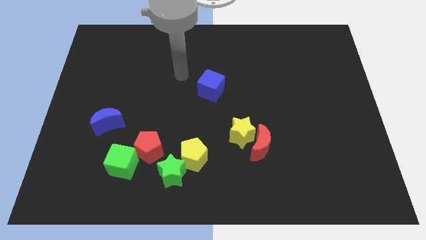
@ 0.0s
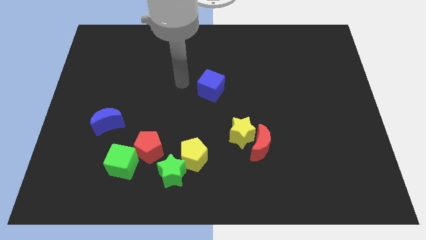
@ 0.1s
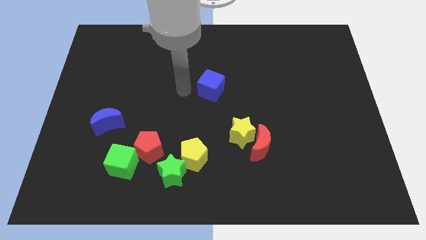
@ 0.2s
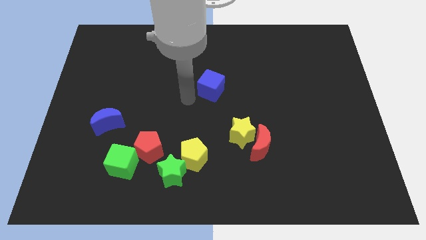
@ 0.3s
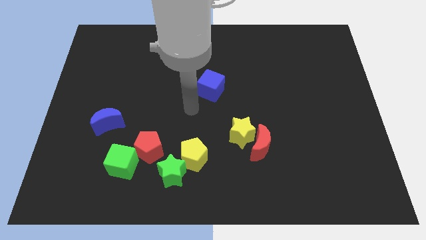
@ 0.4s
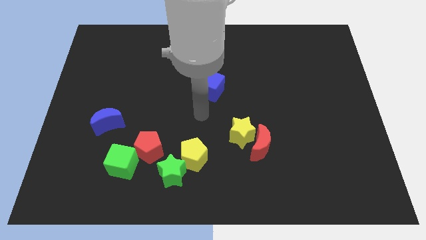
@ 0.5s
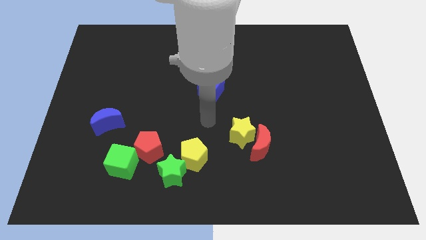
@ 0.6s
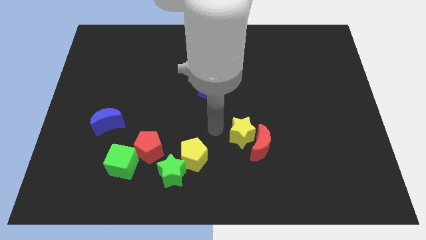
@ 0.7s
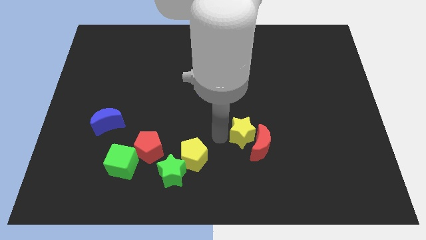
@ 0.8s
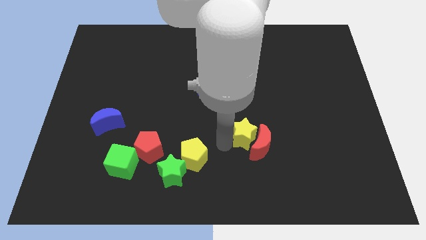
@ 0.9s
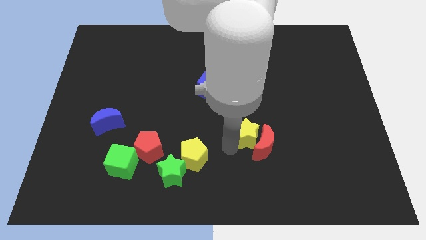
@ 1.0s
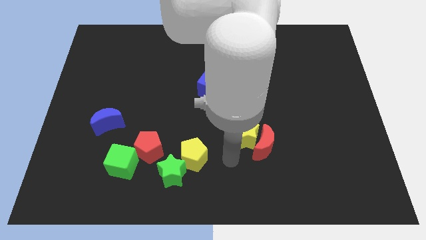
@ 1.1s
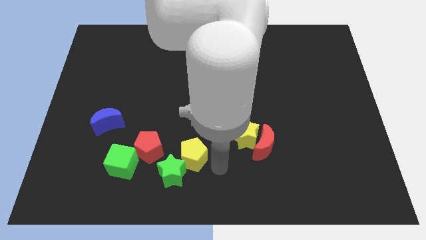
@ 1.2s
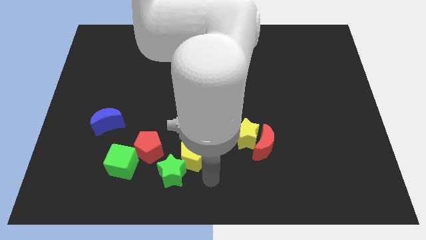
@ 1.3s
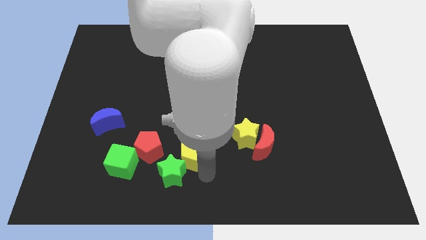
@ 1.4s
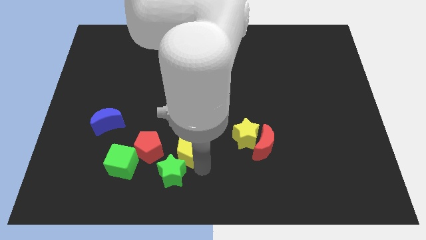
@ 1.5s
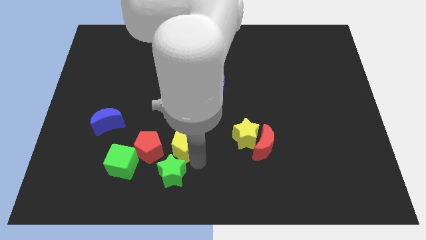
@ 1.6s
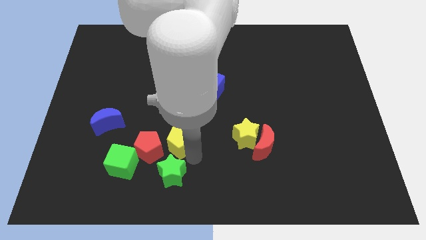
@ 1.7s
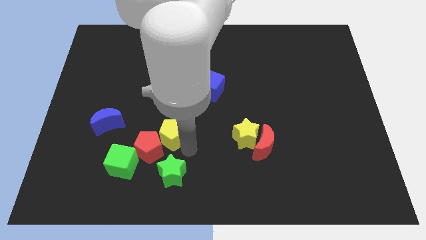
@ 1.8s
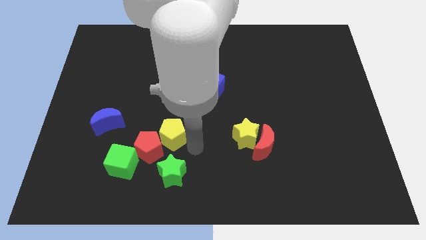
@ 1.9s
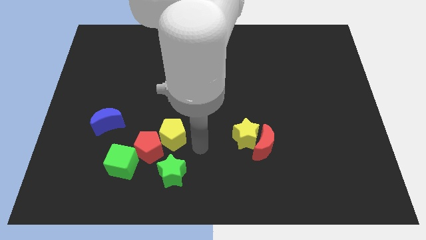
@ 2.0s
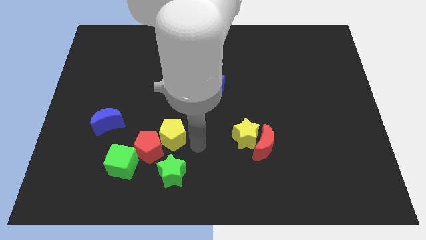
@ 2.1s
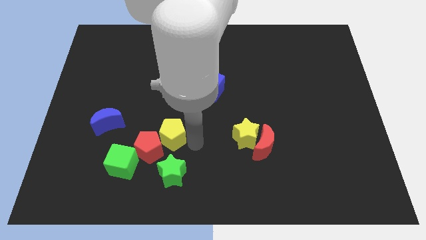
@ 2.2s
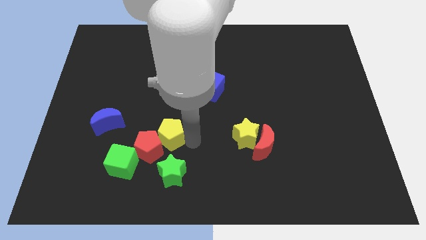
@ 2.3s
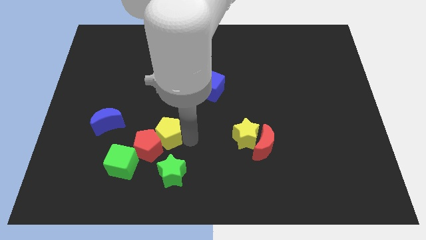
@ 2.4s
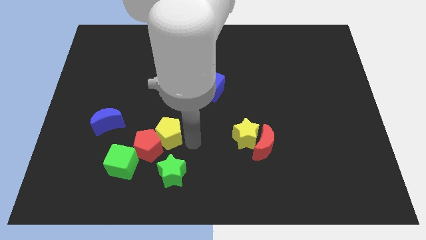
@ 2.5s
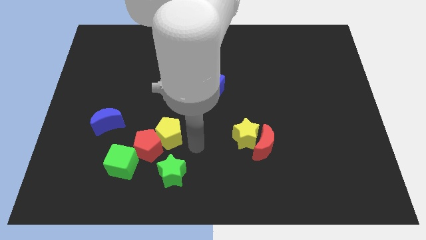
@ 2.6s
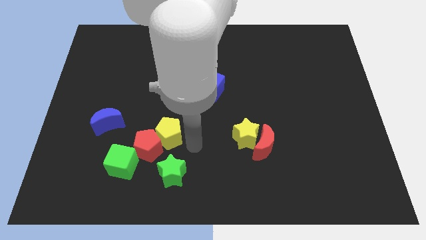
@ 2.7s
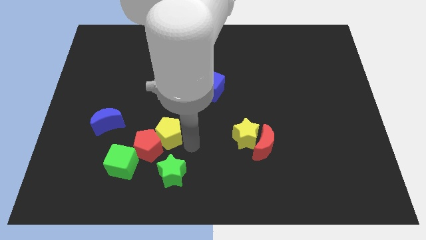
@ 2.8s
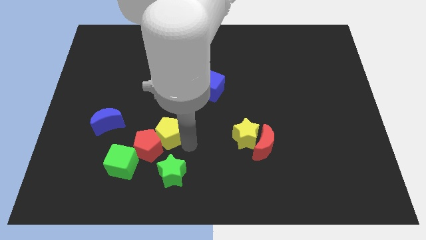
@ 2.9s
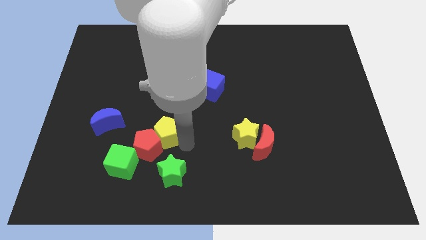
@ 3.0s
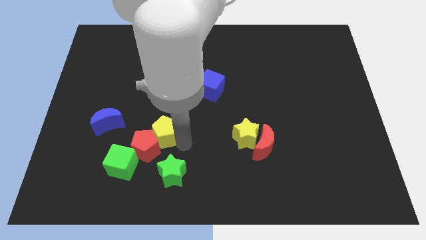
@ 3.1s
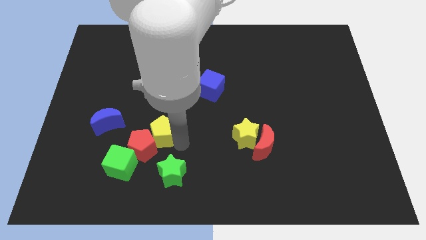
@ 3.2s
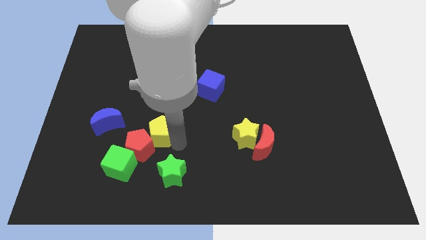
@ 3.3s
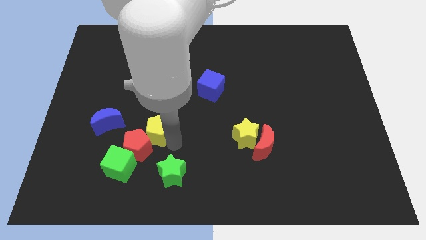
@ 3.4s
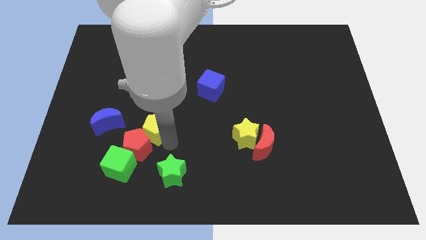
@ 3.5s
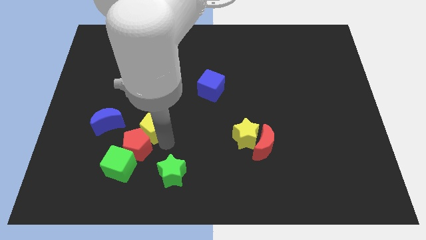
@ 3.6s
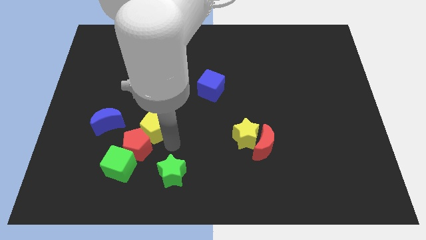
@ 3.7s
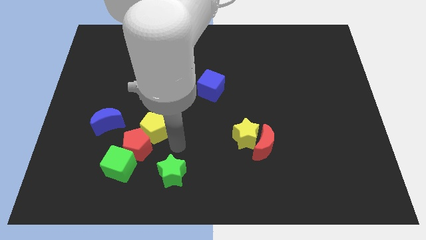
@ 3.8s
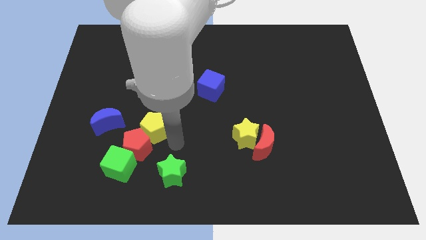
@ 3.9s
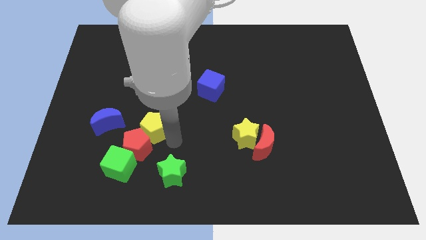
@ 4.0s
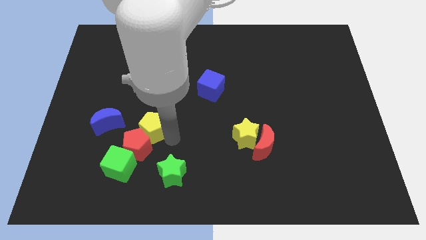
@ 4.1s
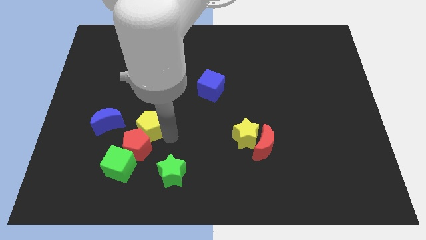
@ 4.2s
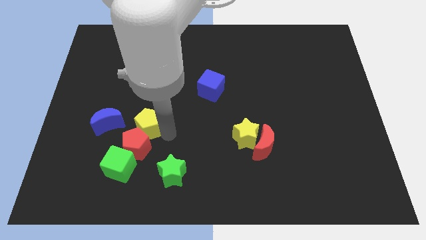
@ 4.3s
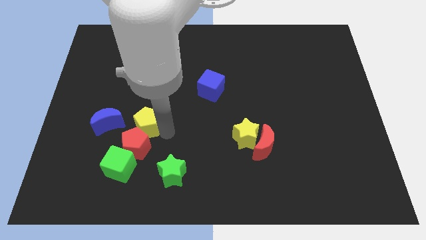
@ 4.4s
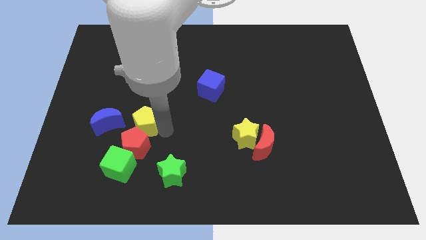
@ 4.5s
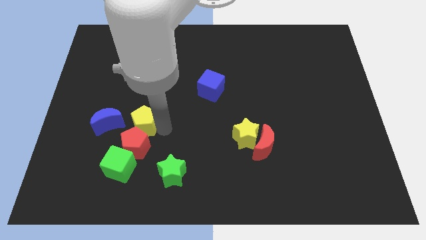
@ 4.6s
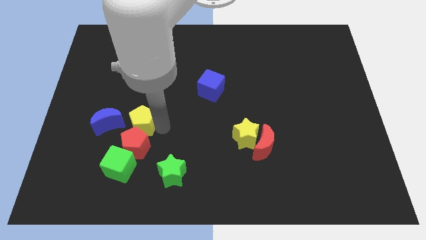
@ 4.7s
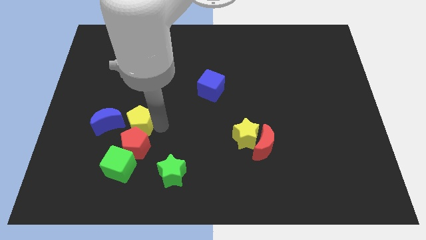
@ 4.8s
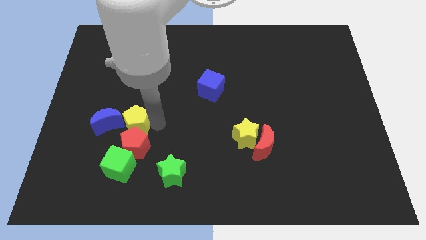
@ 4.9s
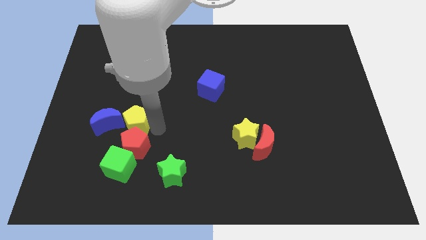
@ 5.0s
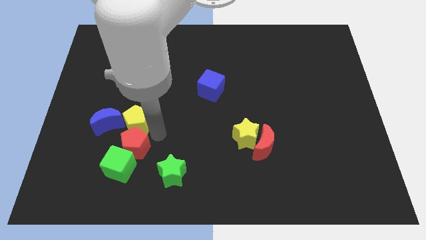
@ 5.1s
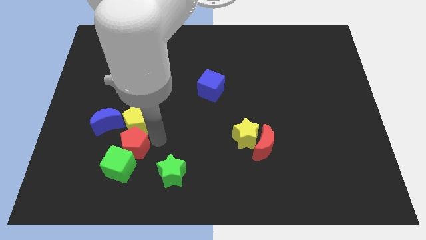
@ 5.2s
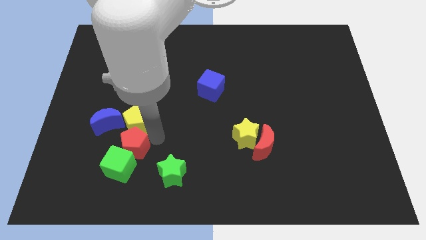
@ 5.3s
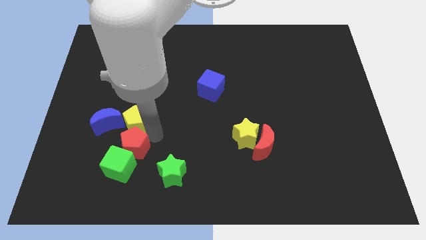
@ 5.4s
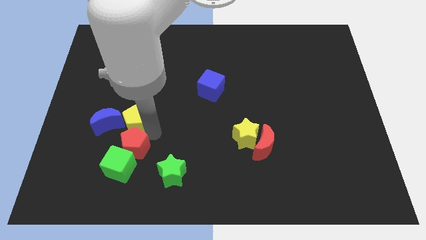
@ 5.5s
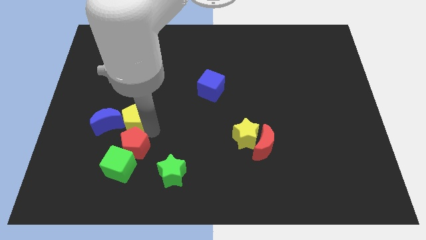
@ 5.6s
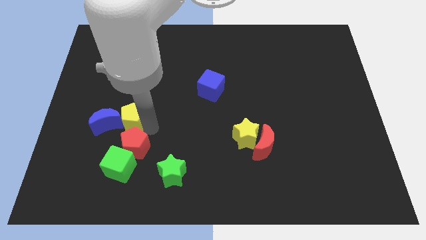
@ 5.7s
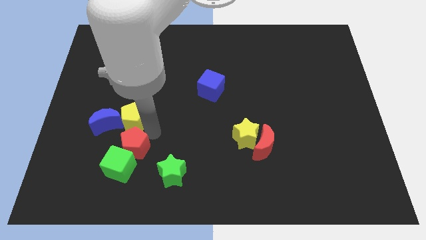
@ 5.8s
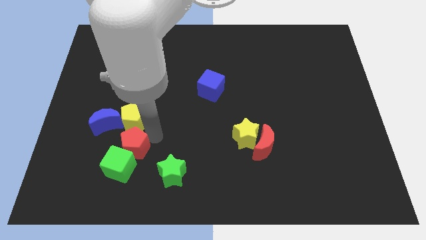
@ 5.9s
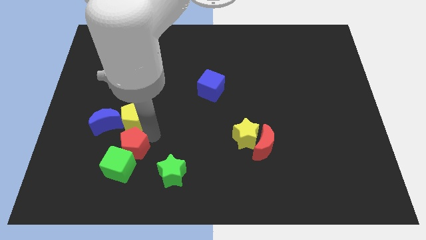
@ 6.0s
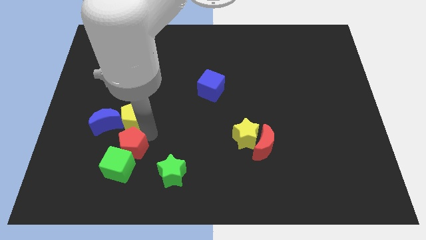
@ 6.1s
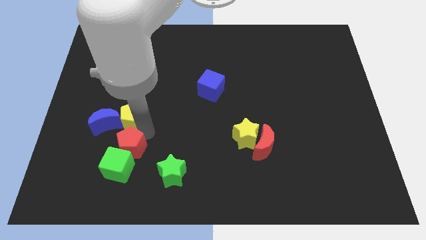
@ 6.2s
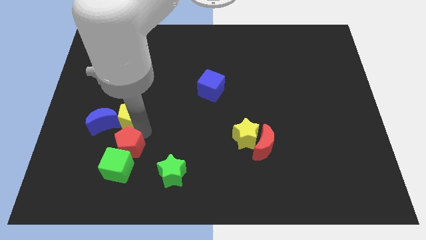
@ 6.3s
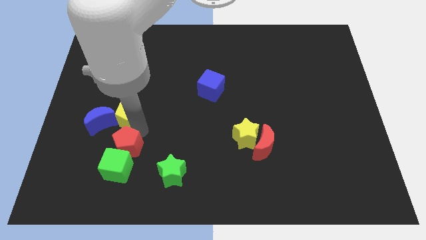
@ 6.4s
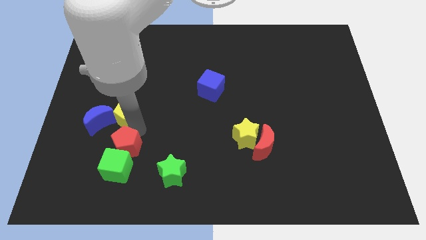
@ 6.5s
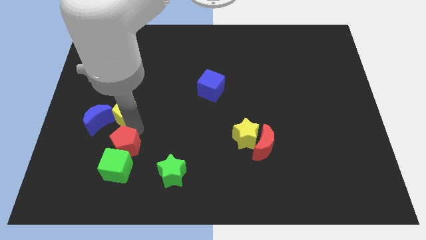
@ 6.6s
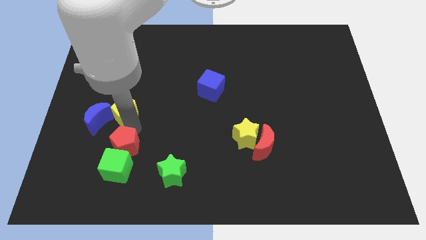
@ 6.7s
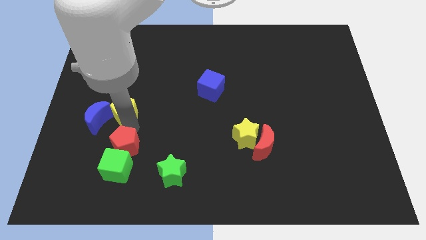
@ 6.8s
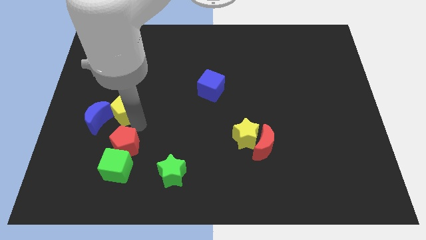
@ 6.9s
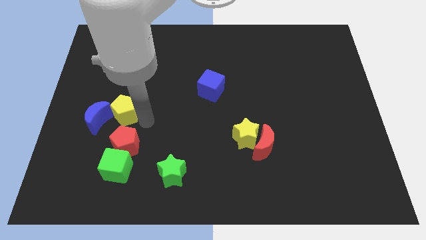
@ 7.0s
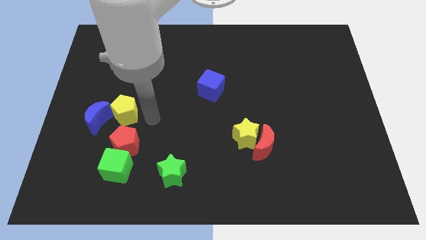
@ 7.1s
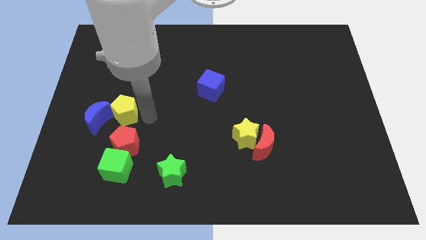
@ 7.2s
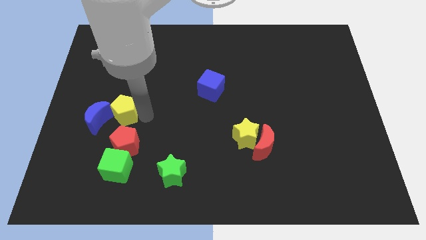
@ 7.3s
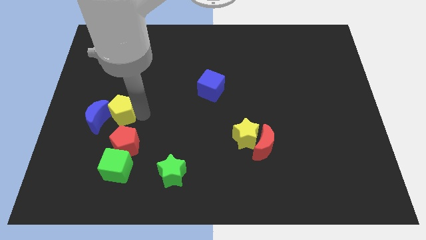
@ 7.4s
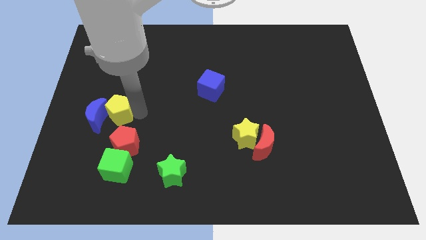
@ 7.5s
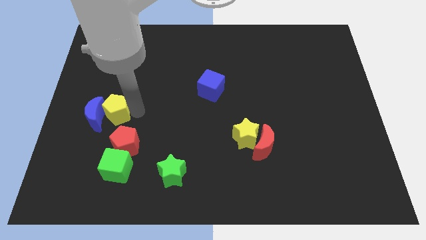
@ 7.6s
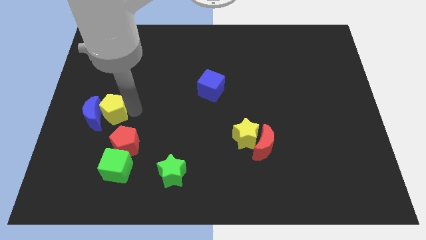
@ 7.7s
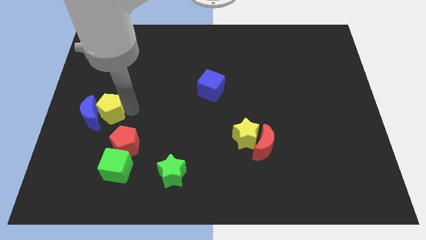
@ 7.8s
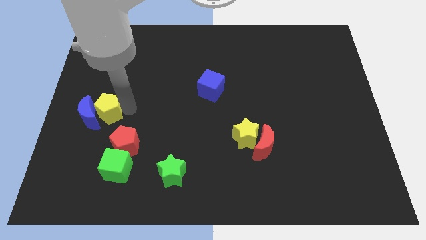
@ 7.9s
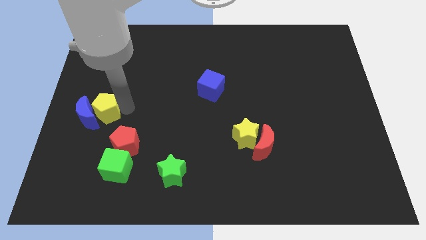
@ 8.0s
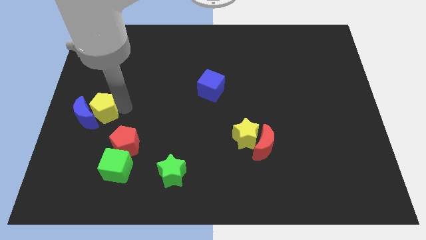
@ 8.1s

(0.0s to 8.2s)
move the yellow pentagon to the left side
